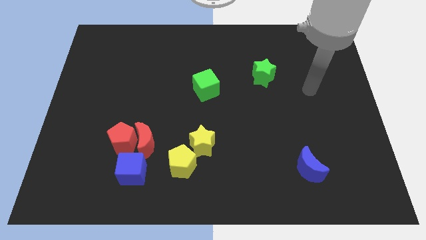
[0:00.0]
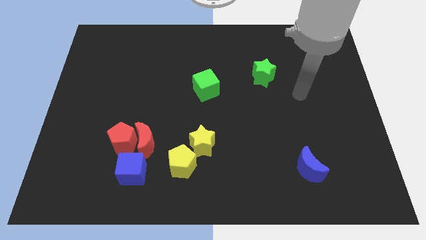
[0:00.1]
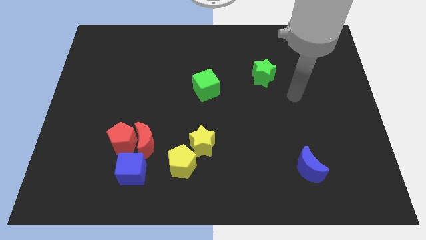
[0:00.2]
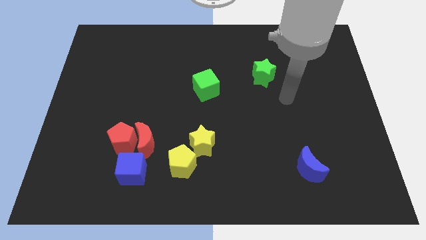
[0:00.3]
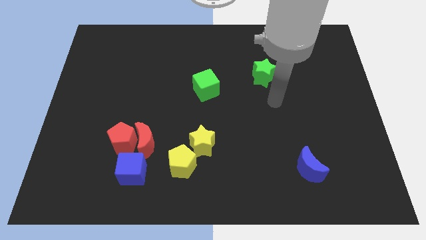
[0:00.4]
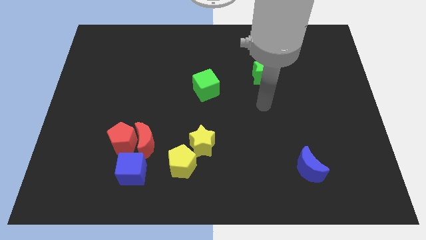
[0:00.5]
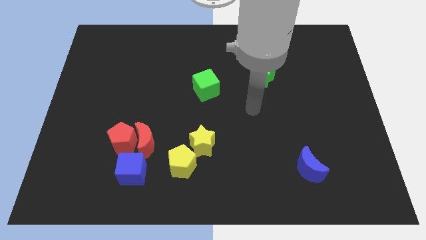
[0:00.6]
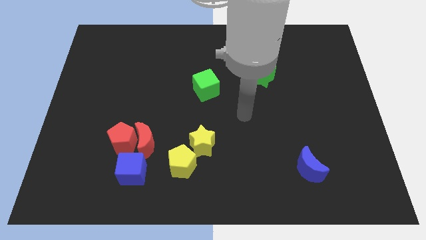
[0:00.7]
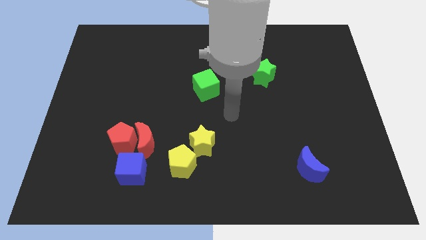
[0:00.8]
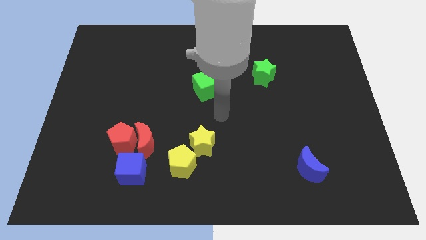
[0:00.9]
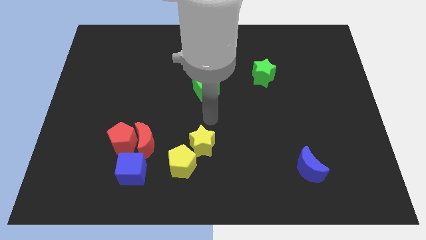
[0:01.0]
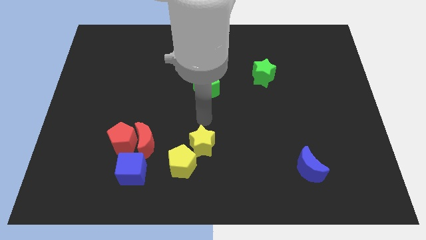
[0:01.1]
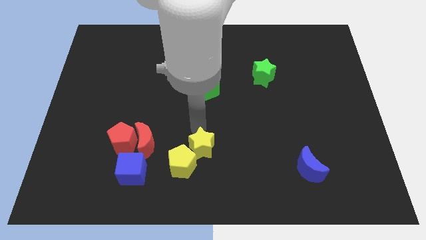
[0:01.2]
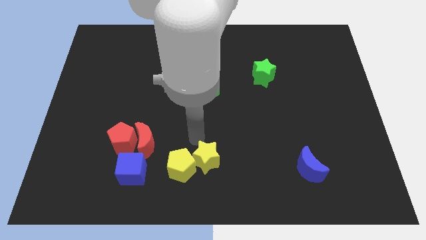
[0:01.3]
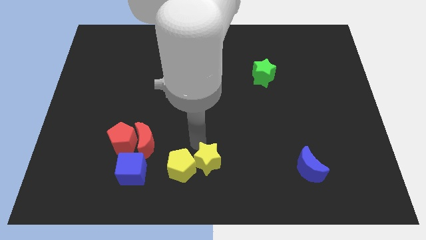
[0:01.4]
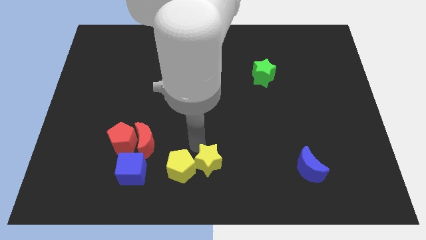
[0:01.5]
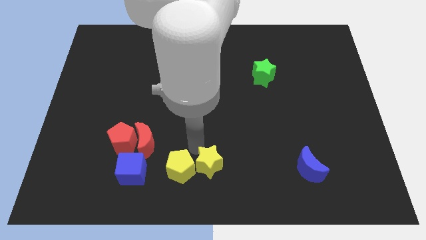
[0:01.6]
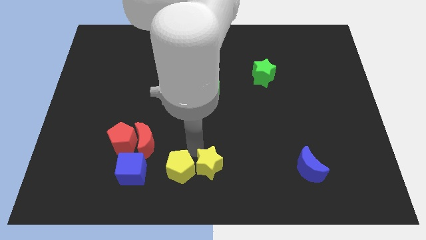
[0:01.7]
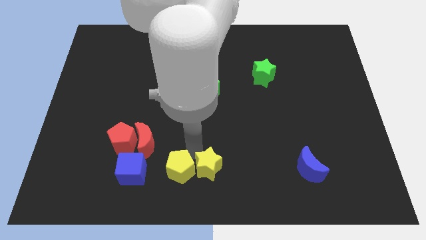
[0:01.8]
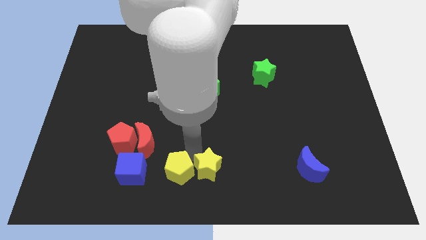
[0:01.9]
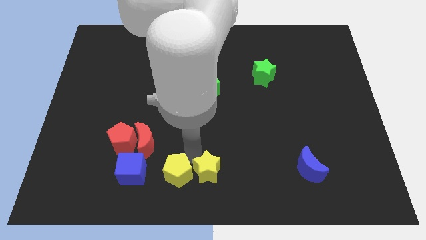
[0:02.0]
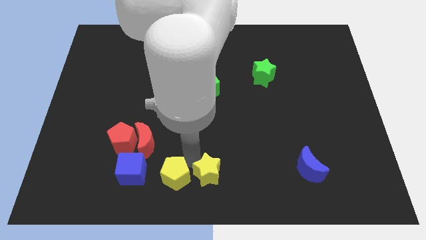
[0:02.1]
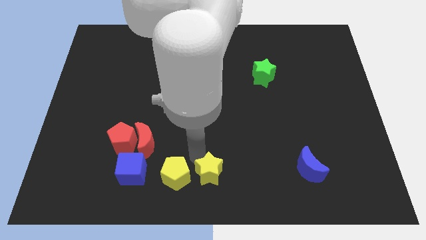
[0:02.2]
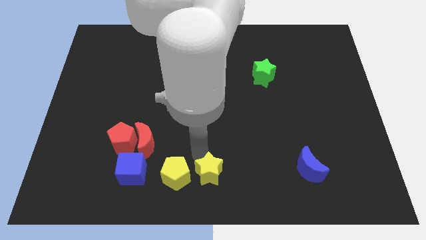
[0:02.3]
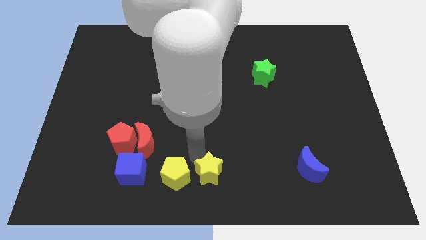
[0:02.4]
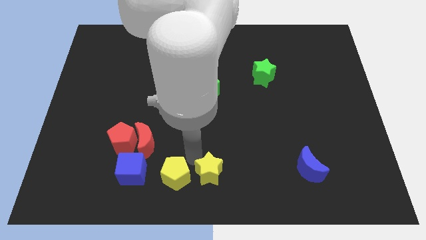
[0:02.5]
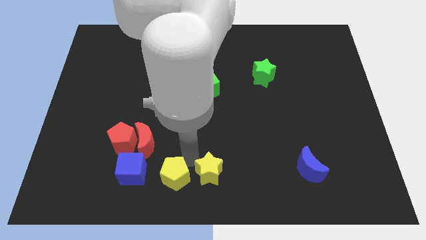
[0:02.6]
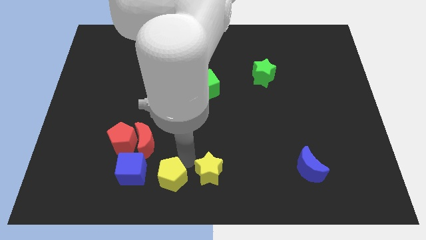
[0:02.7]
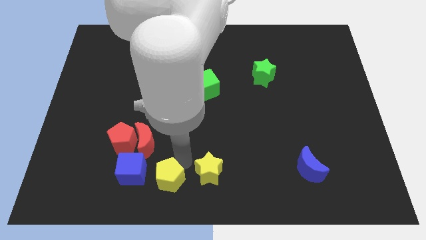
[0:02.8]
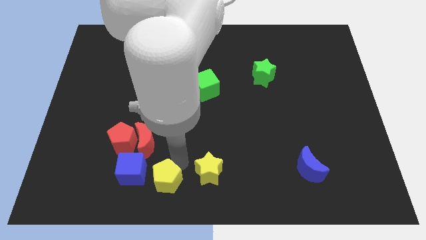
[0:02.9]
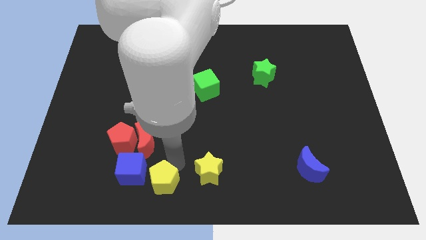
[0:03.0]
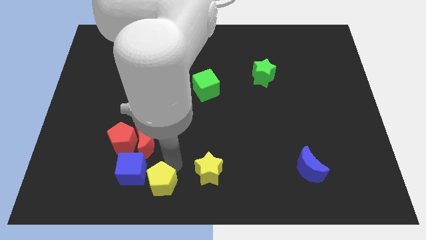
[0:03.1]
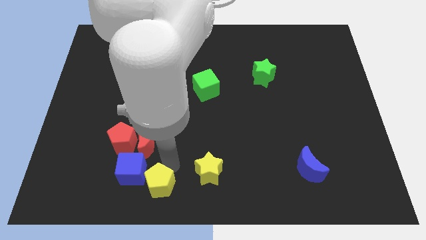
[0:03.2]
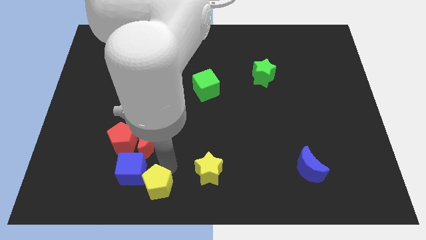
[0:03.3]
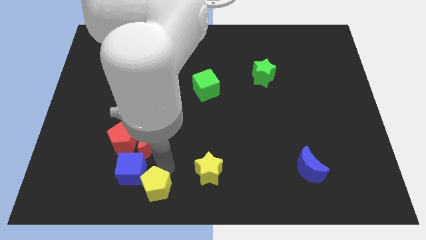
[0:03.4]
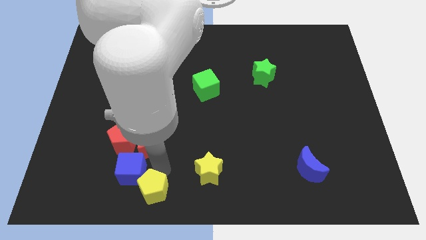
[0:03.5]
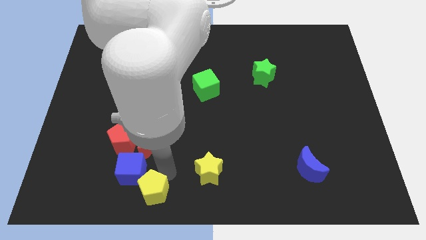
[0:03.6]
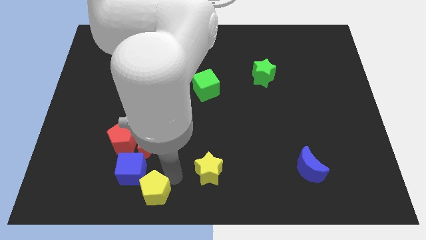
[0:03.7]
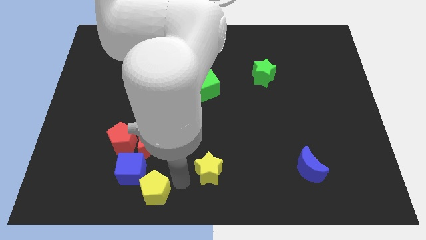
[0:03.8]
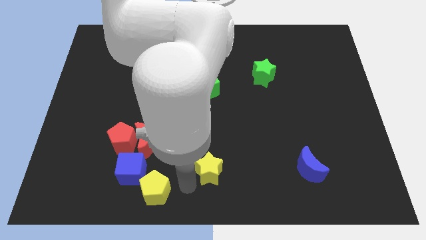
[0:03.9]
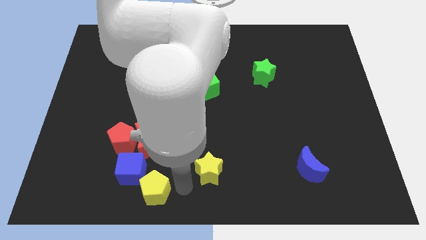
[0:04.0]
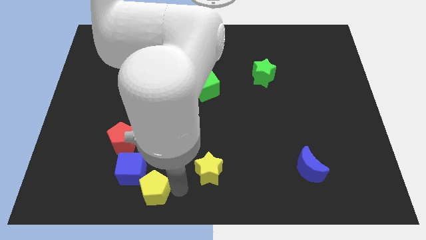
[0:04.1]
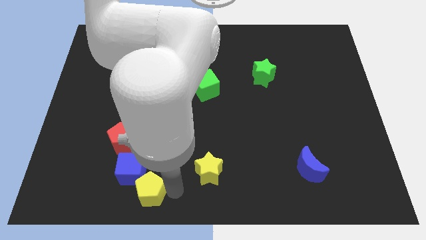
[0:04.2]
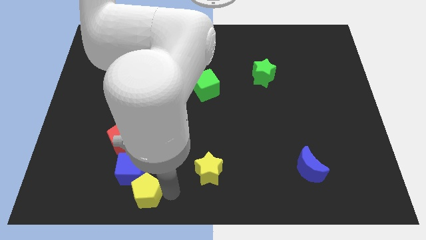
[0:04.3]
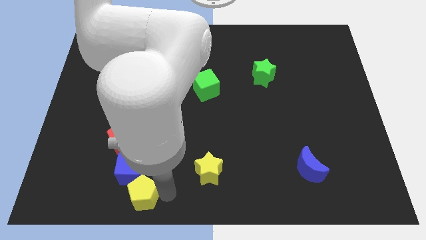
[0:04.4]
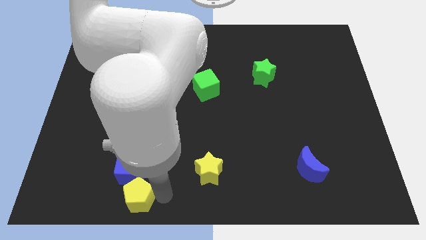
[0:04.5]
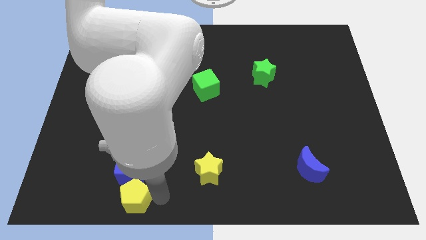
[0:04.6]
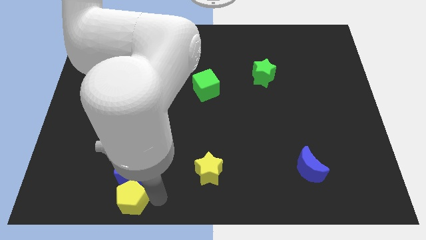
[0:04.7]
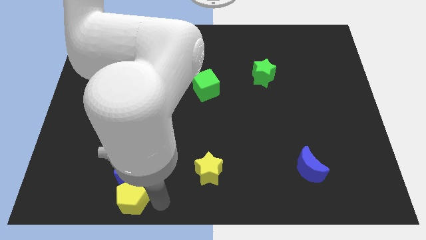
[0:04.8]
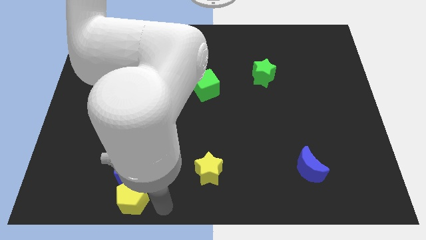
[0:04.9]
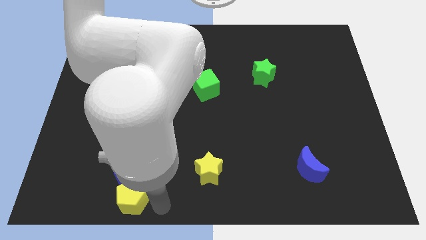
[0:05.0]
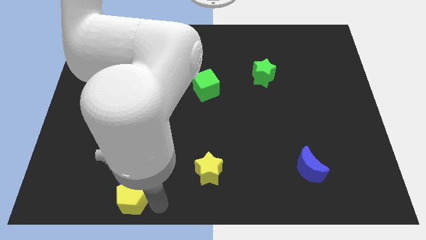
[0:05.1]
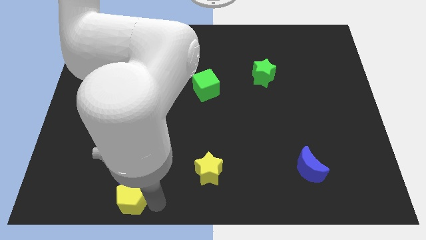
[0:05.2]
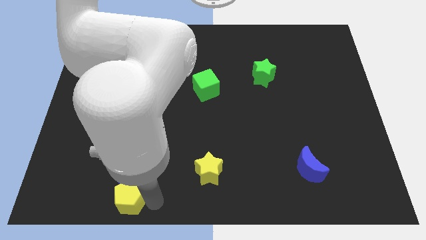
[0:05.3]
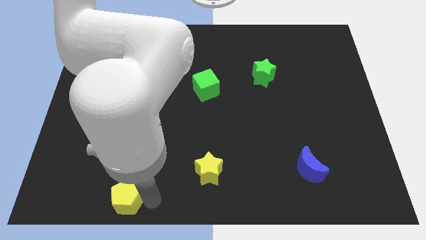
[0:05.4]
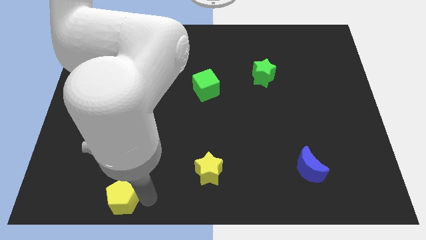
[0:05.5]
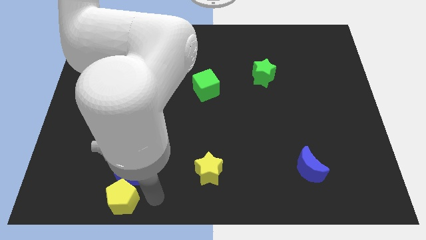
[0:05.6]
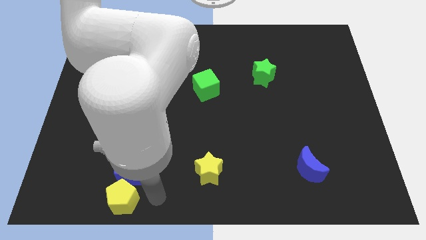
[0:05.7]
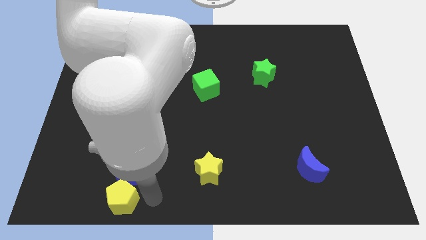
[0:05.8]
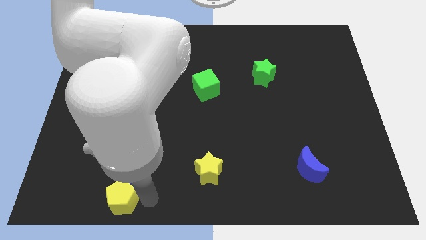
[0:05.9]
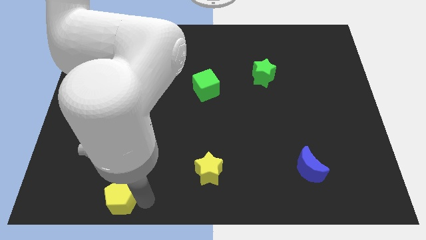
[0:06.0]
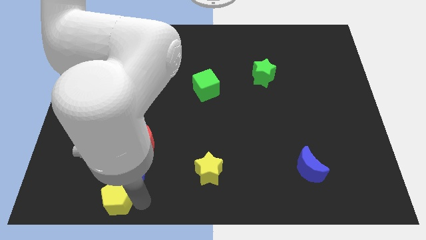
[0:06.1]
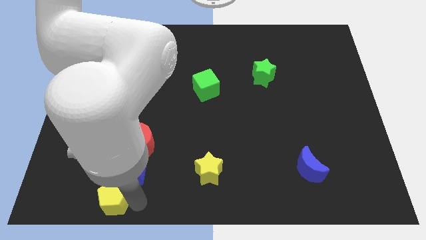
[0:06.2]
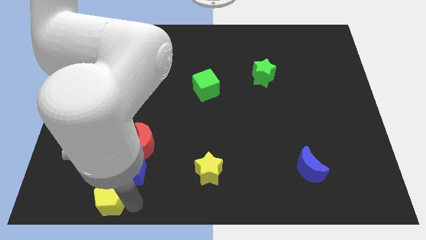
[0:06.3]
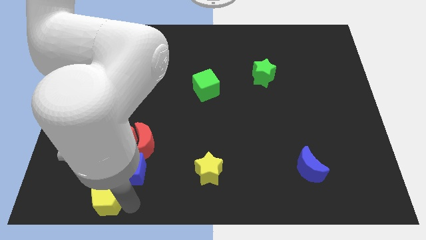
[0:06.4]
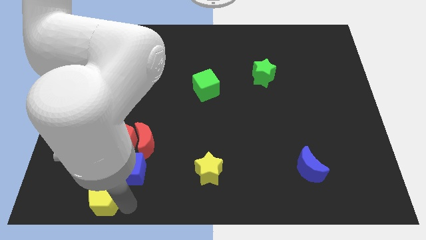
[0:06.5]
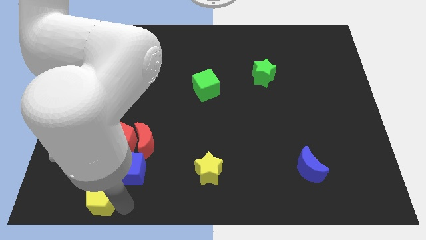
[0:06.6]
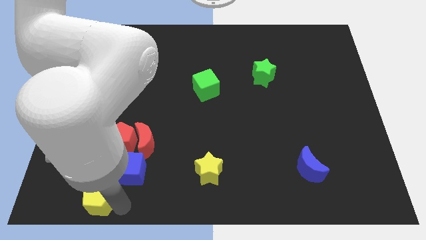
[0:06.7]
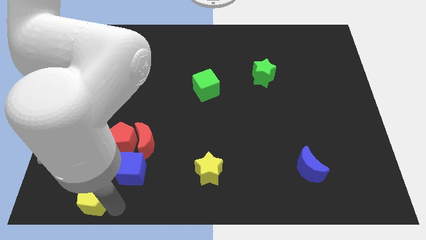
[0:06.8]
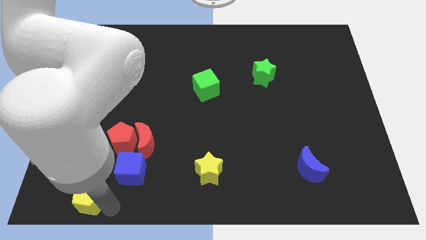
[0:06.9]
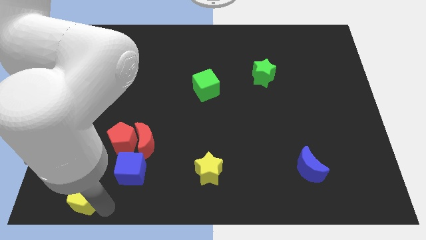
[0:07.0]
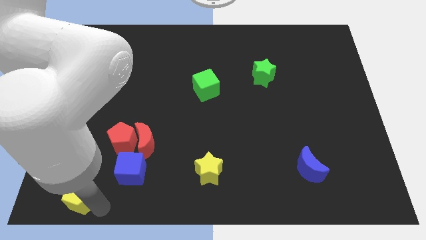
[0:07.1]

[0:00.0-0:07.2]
move the yellow pentagon to the bottom left corner
